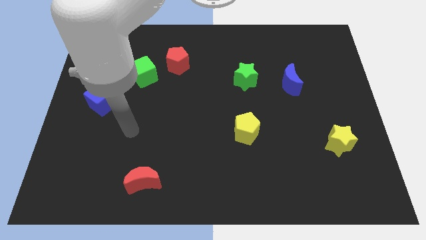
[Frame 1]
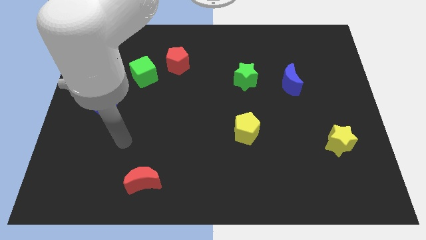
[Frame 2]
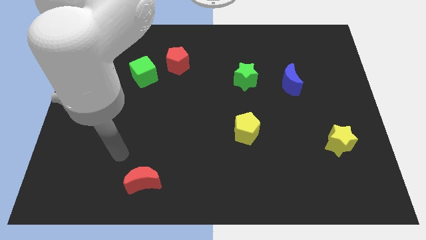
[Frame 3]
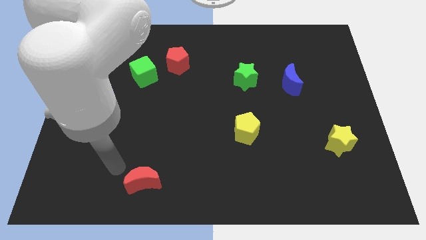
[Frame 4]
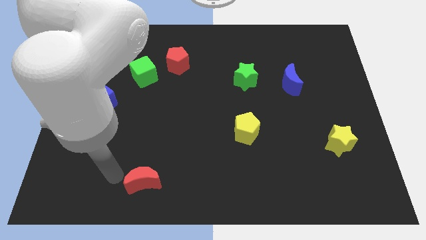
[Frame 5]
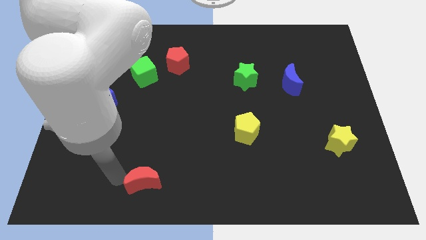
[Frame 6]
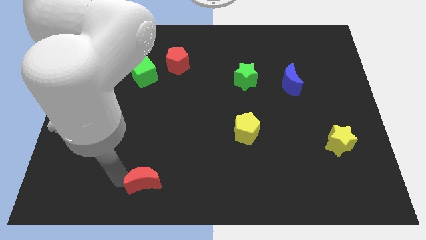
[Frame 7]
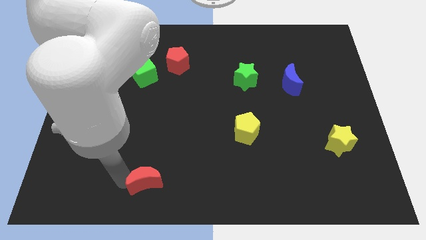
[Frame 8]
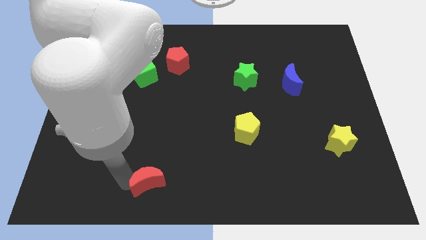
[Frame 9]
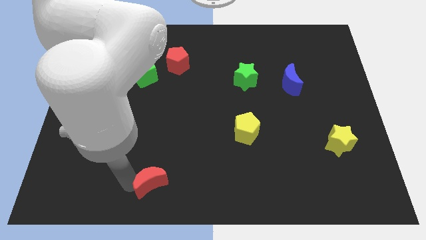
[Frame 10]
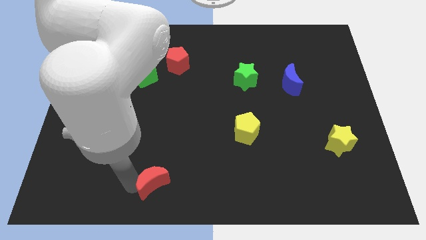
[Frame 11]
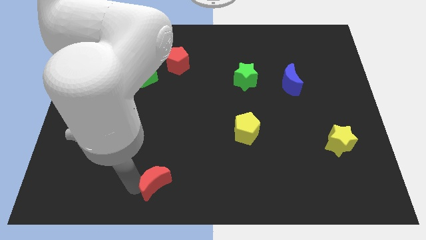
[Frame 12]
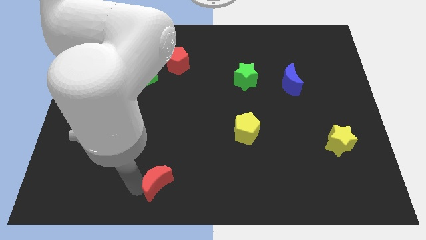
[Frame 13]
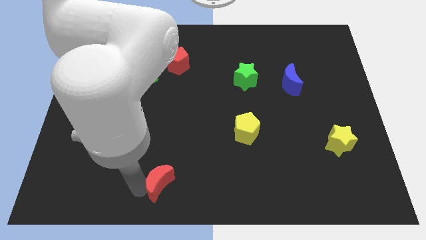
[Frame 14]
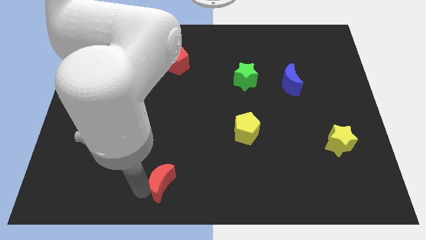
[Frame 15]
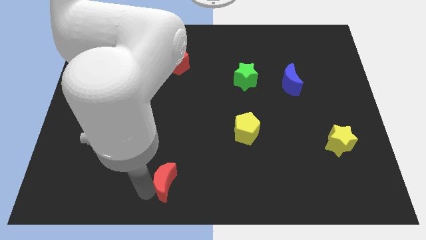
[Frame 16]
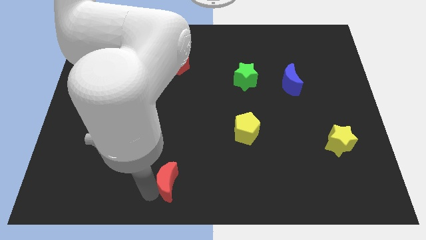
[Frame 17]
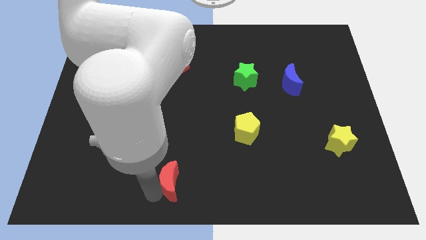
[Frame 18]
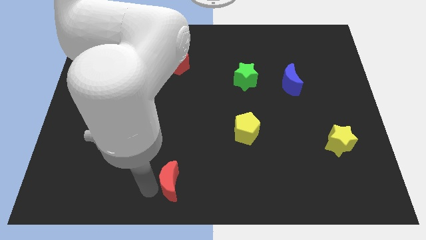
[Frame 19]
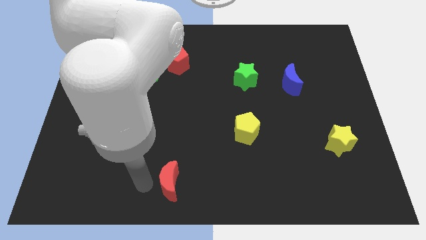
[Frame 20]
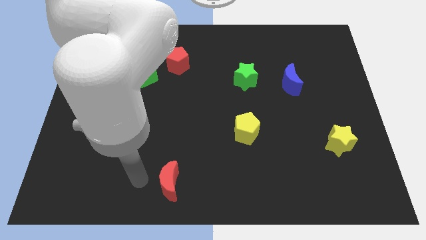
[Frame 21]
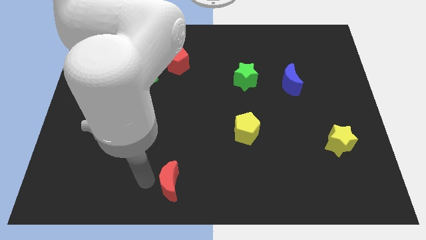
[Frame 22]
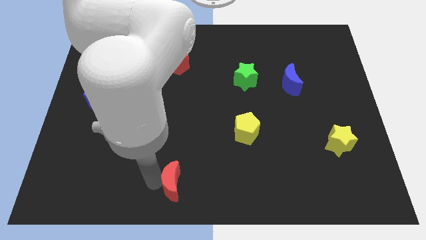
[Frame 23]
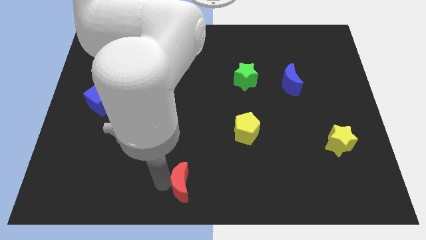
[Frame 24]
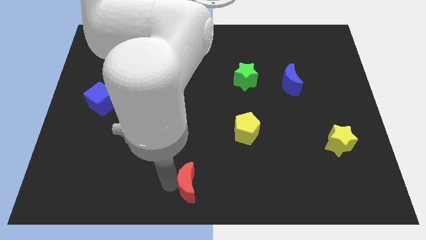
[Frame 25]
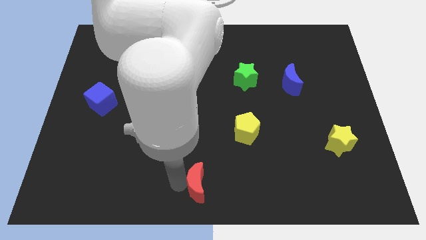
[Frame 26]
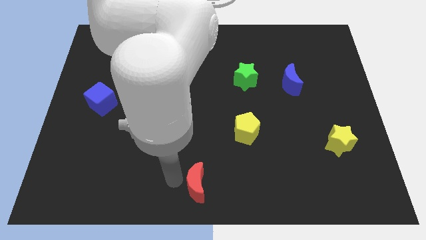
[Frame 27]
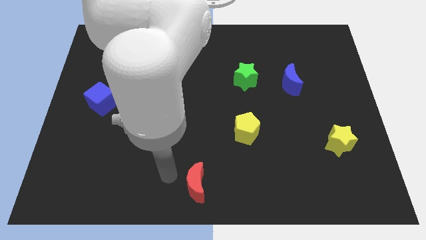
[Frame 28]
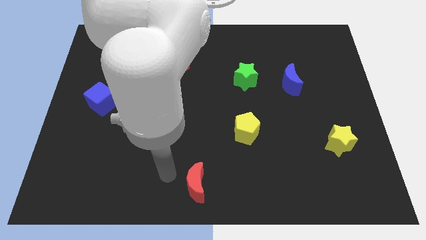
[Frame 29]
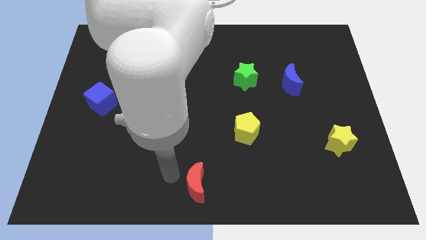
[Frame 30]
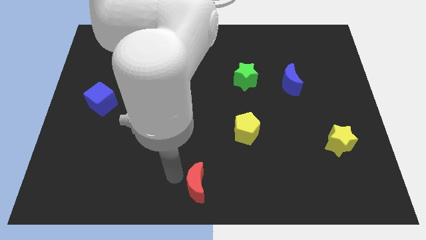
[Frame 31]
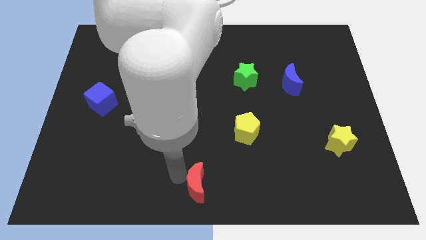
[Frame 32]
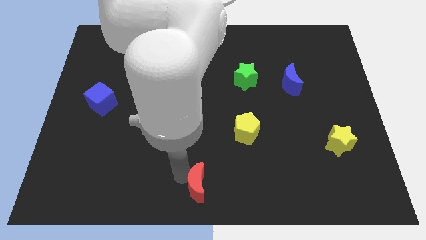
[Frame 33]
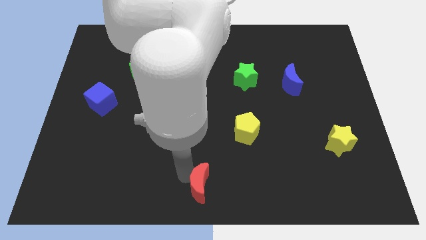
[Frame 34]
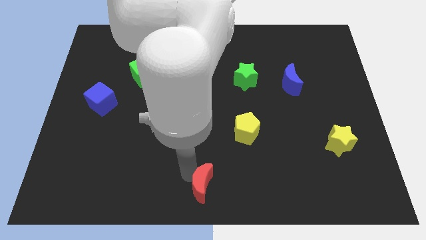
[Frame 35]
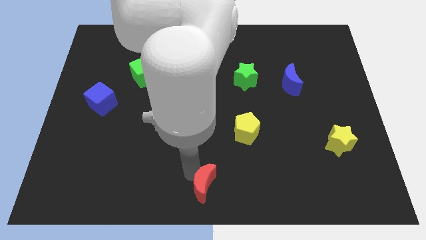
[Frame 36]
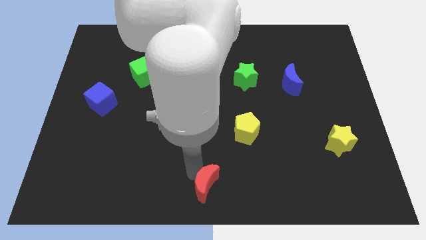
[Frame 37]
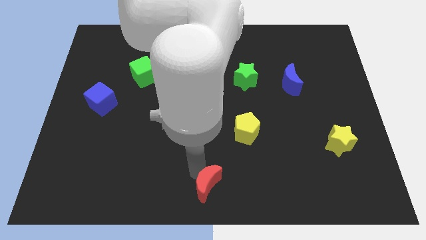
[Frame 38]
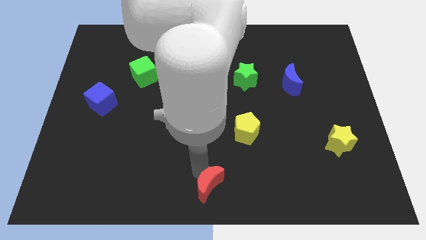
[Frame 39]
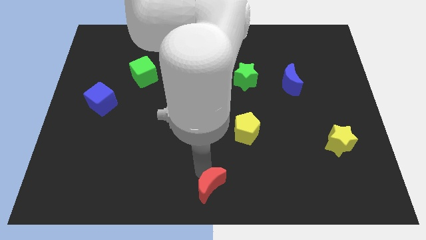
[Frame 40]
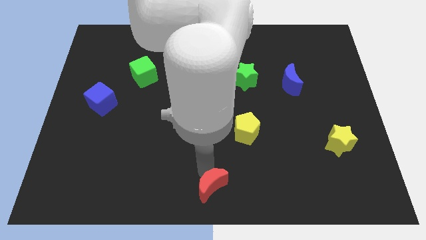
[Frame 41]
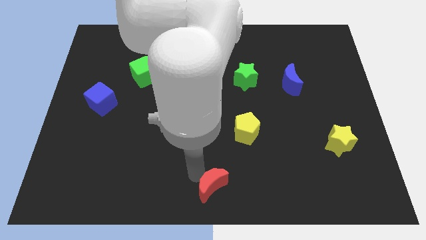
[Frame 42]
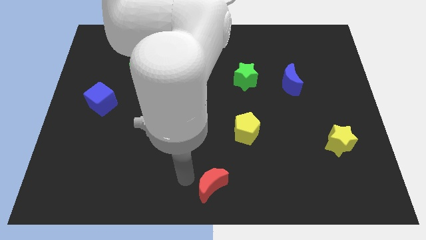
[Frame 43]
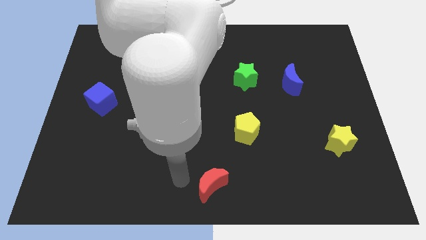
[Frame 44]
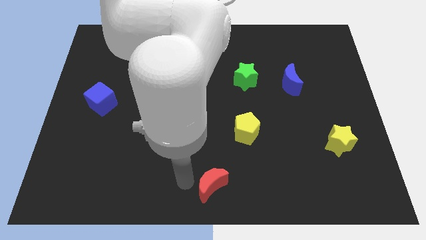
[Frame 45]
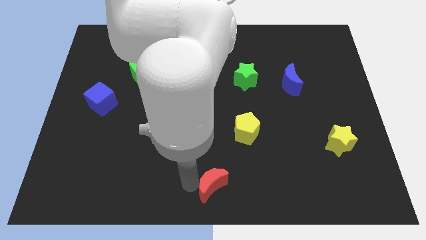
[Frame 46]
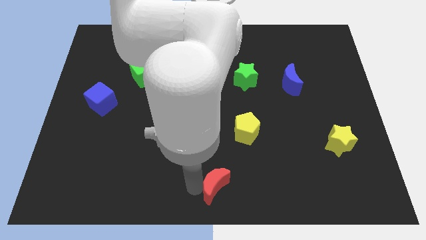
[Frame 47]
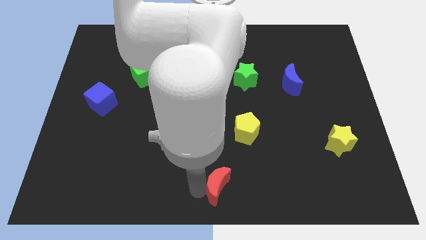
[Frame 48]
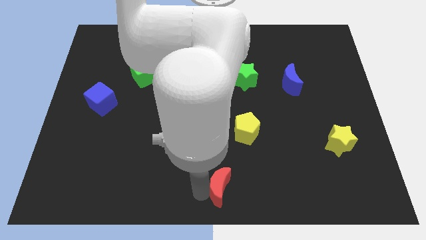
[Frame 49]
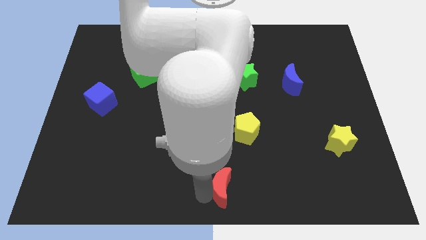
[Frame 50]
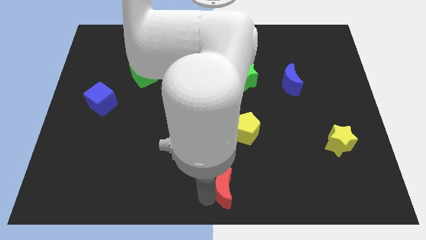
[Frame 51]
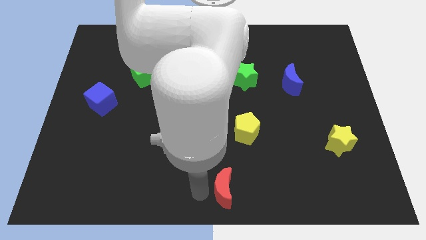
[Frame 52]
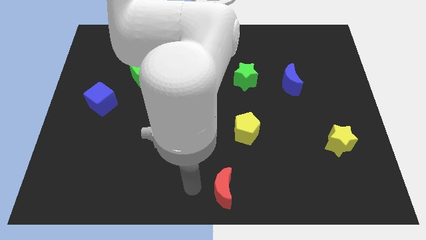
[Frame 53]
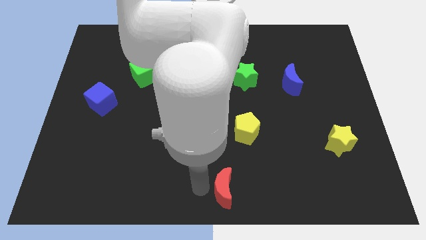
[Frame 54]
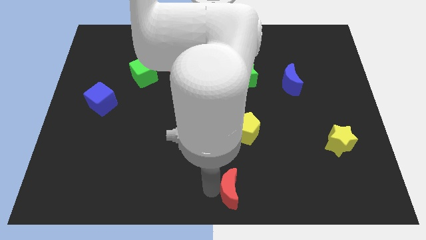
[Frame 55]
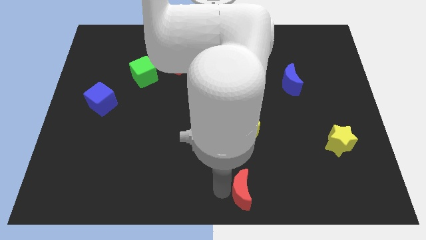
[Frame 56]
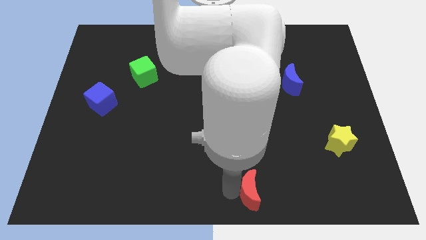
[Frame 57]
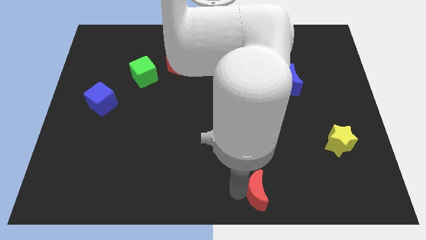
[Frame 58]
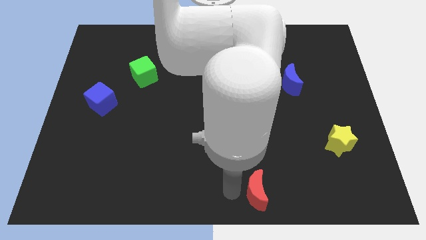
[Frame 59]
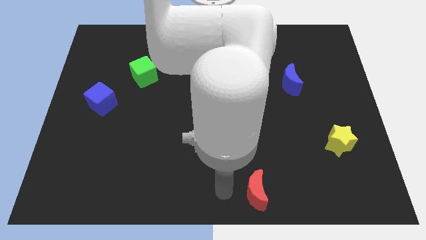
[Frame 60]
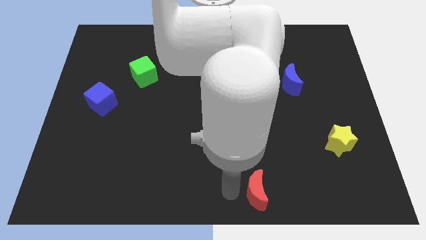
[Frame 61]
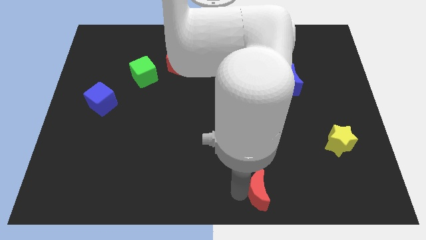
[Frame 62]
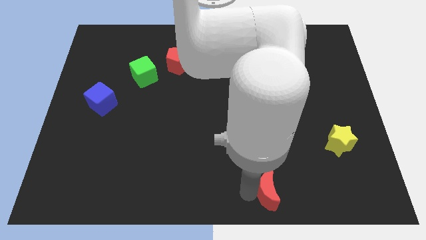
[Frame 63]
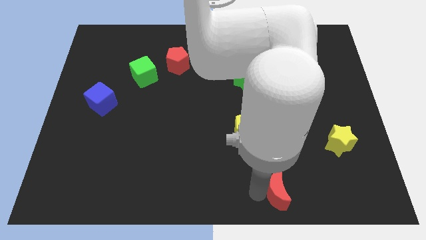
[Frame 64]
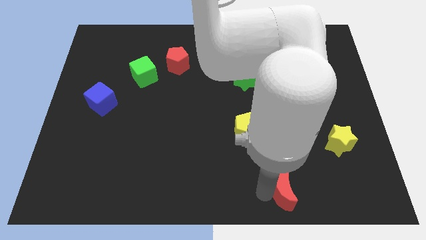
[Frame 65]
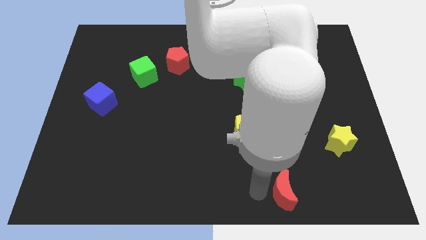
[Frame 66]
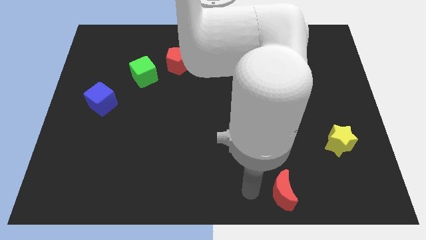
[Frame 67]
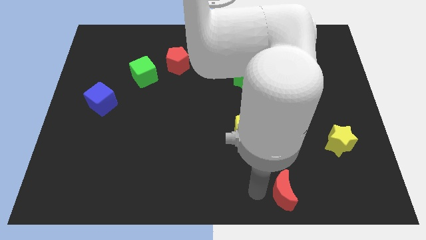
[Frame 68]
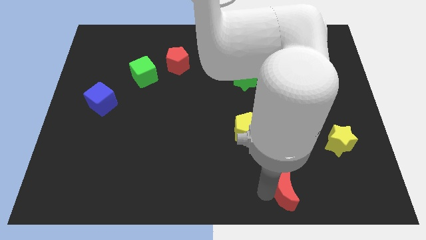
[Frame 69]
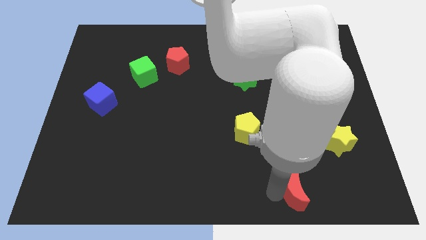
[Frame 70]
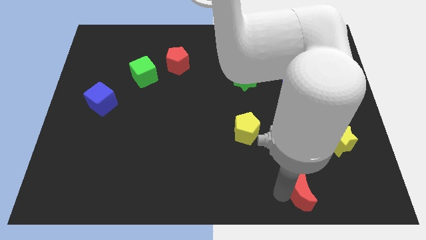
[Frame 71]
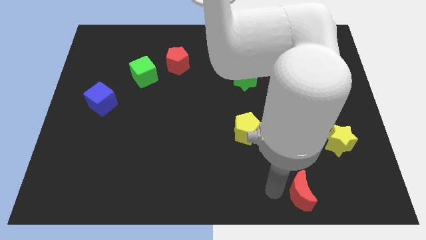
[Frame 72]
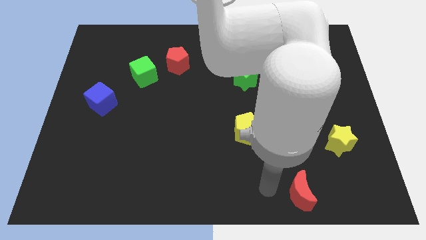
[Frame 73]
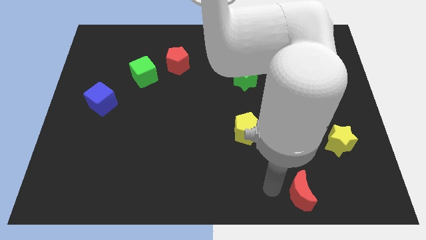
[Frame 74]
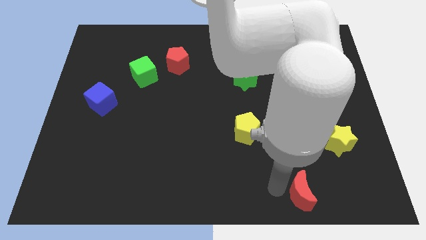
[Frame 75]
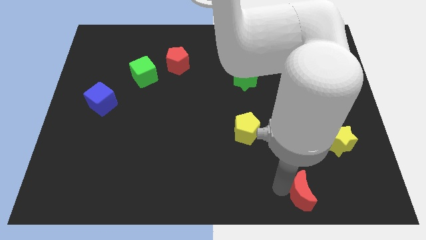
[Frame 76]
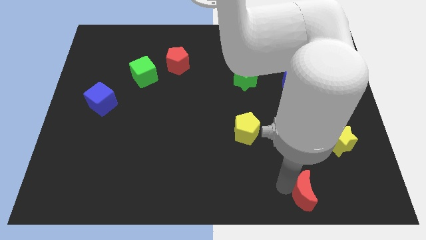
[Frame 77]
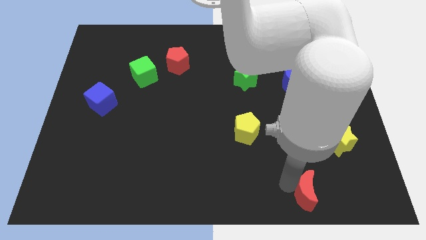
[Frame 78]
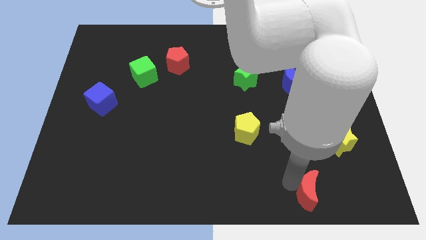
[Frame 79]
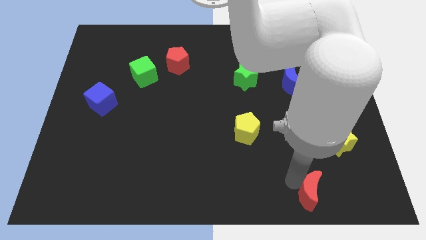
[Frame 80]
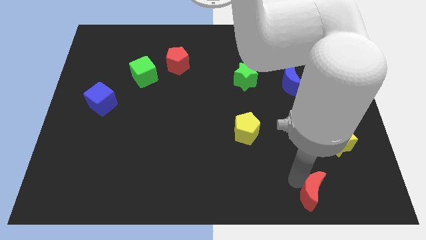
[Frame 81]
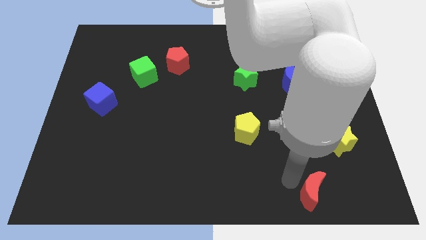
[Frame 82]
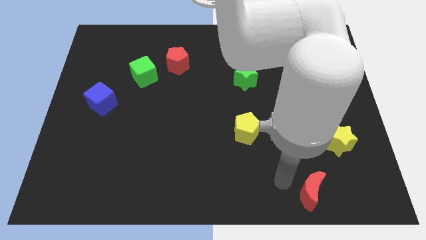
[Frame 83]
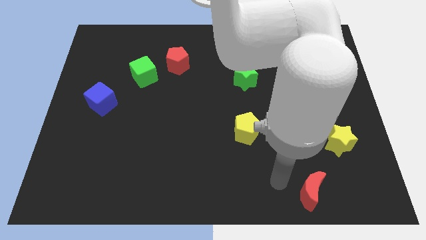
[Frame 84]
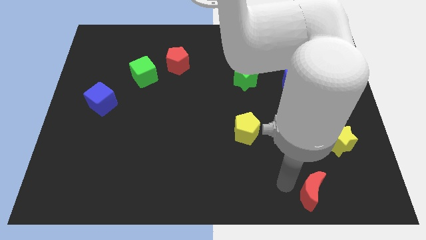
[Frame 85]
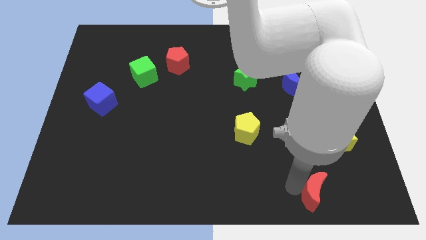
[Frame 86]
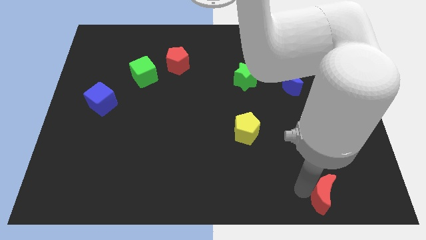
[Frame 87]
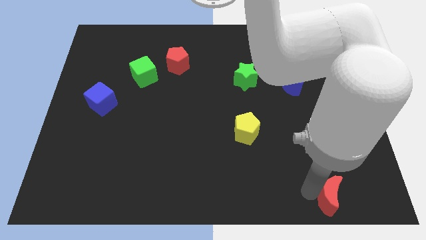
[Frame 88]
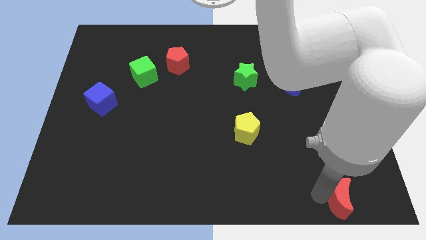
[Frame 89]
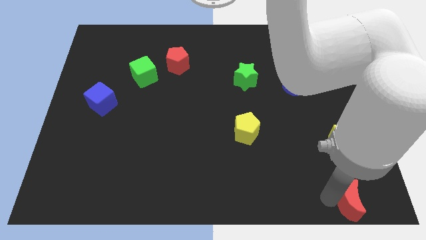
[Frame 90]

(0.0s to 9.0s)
slide the red moon to the bottom right corner
